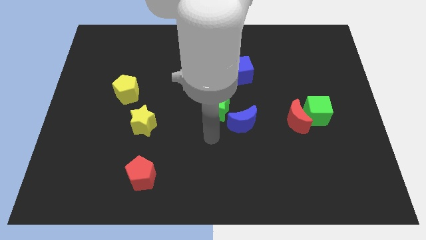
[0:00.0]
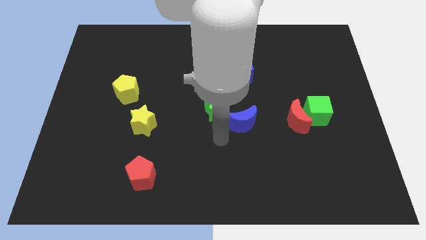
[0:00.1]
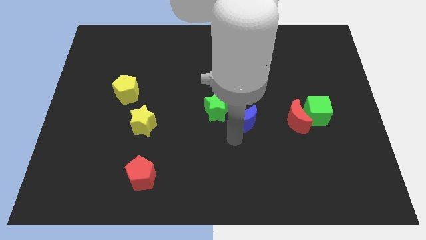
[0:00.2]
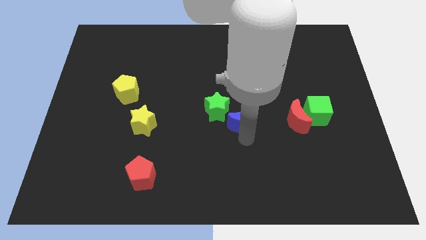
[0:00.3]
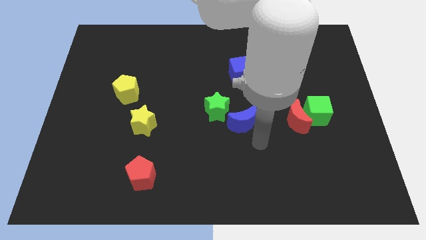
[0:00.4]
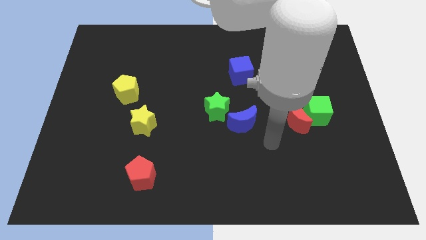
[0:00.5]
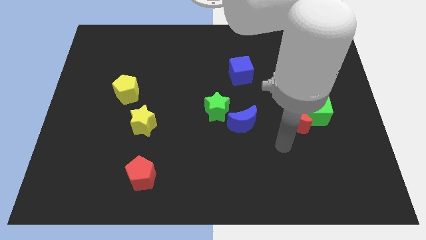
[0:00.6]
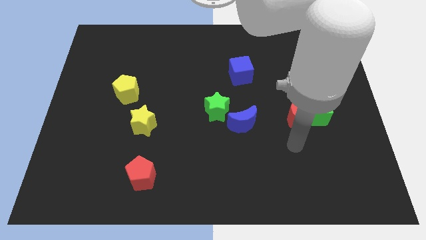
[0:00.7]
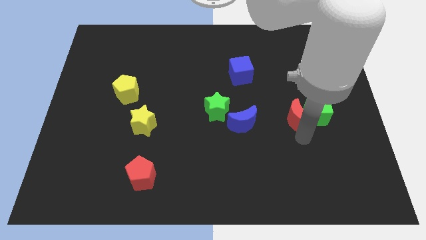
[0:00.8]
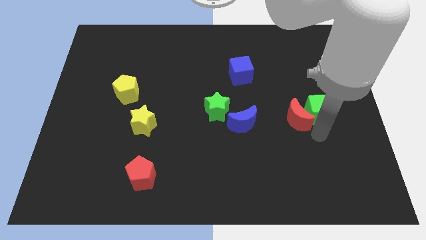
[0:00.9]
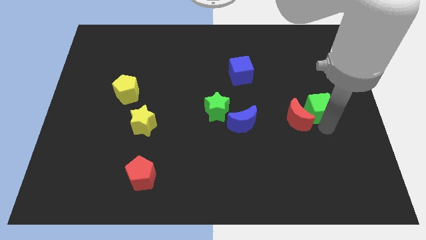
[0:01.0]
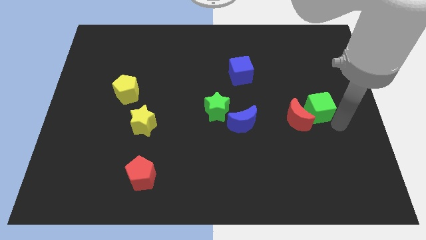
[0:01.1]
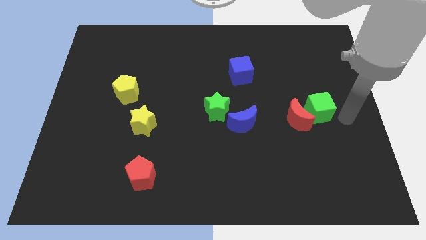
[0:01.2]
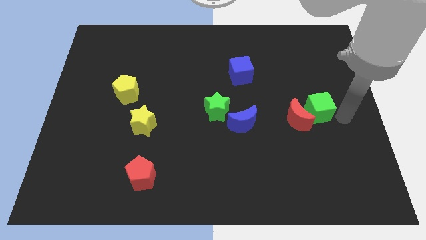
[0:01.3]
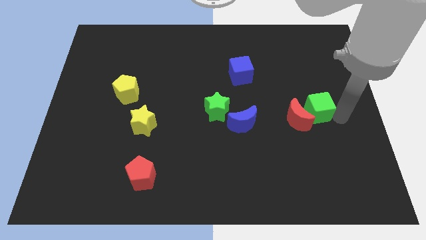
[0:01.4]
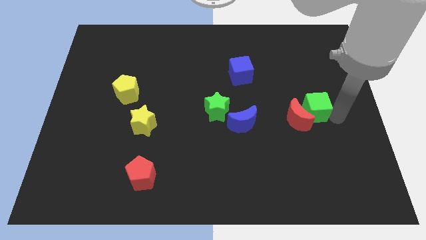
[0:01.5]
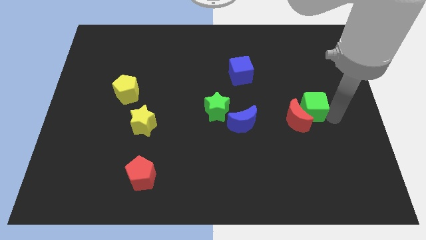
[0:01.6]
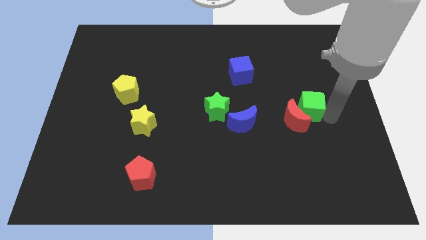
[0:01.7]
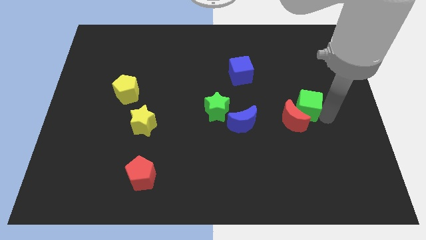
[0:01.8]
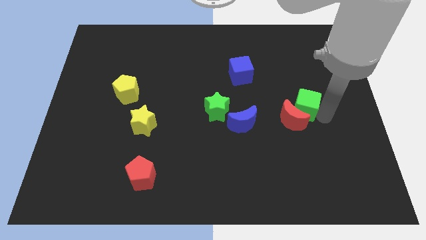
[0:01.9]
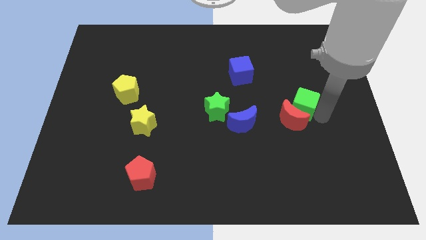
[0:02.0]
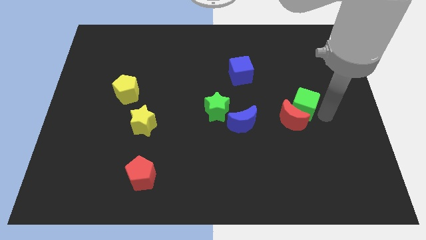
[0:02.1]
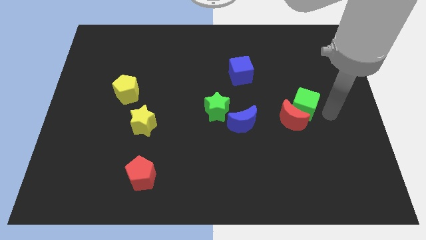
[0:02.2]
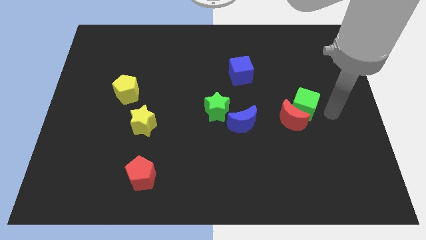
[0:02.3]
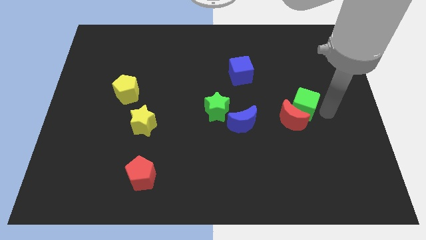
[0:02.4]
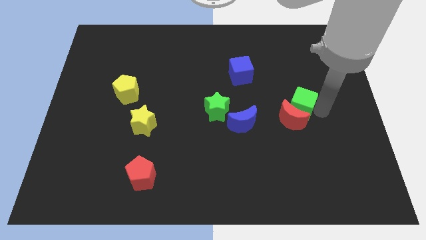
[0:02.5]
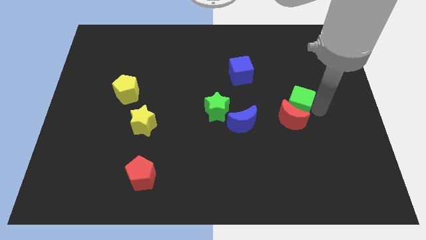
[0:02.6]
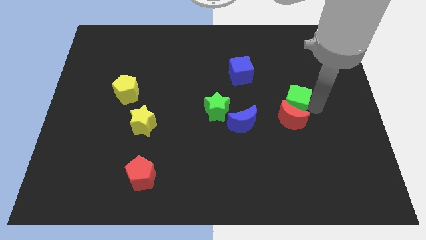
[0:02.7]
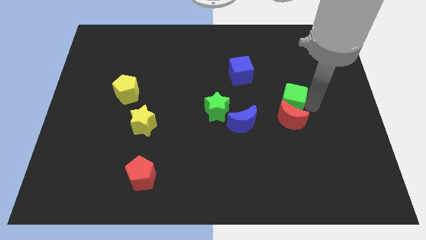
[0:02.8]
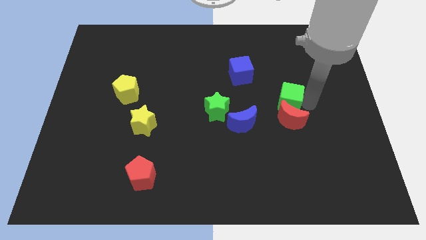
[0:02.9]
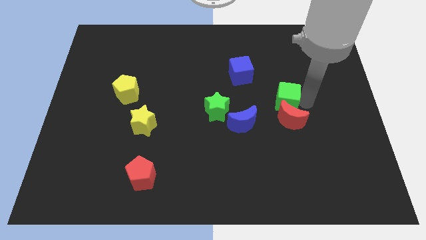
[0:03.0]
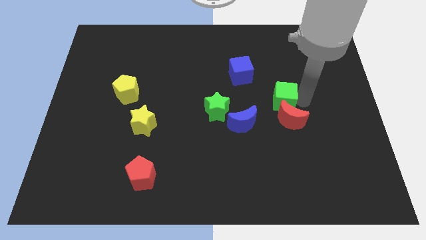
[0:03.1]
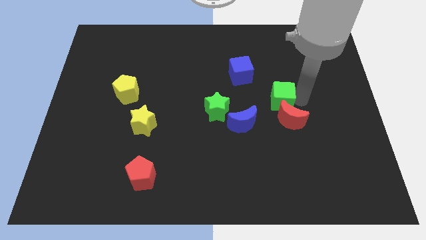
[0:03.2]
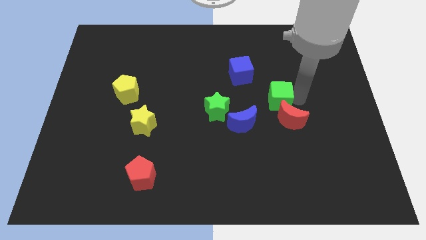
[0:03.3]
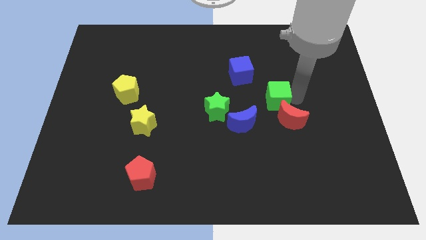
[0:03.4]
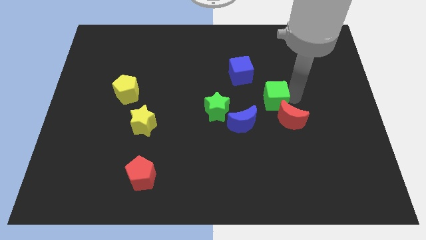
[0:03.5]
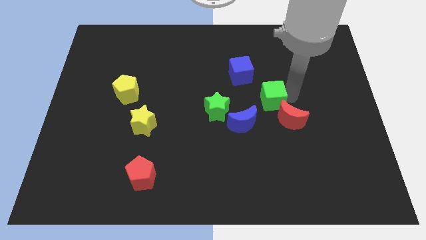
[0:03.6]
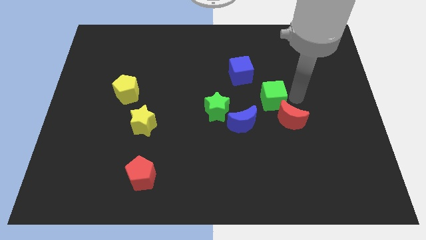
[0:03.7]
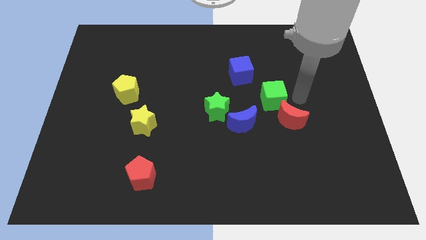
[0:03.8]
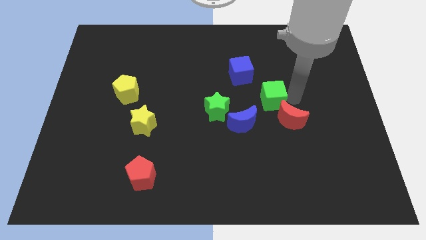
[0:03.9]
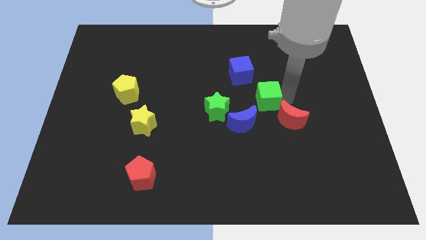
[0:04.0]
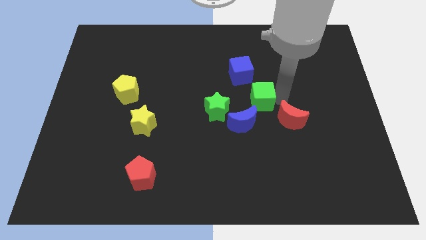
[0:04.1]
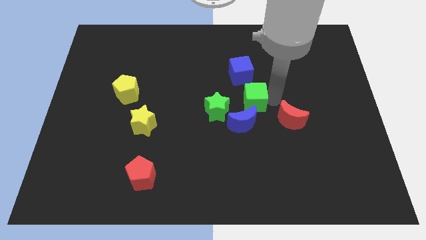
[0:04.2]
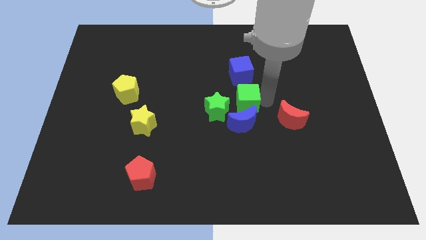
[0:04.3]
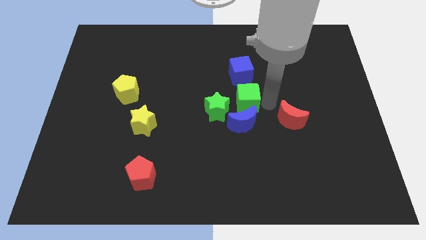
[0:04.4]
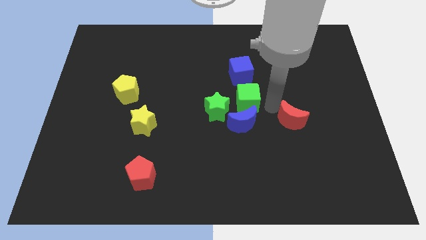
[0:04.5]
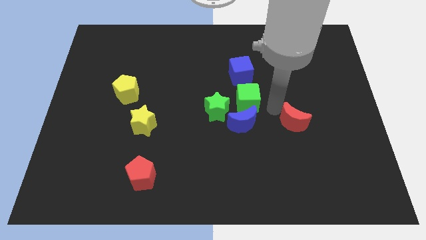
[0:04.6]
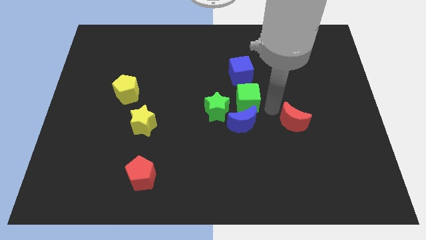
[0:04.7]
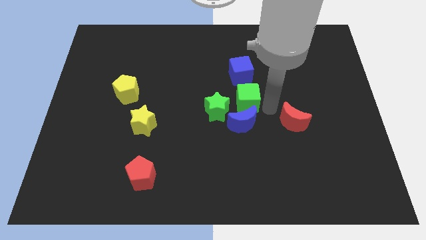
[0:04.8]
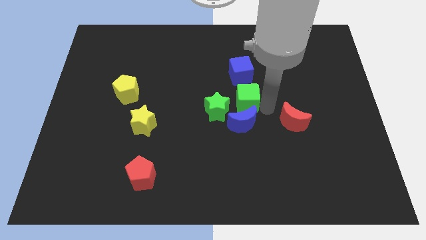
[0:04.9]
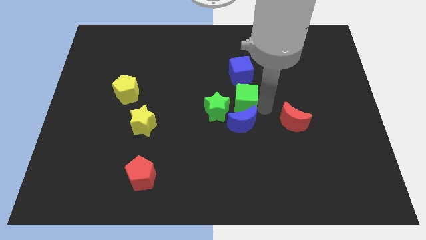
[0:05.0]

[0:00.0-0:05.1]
put the green cube to the top left of the blue moon

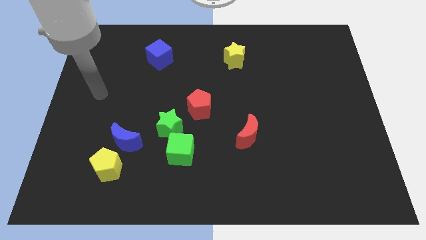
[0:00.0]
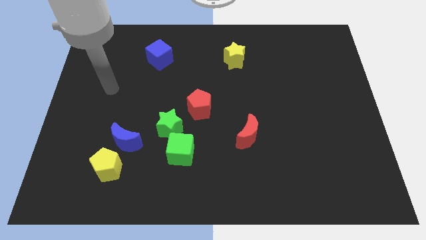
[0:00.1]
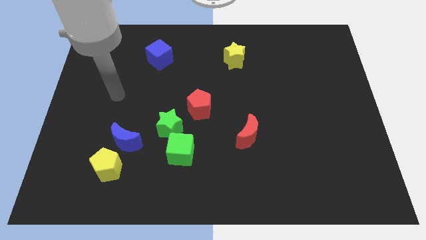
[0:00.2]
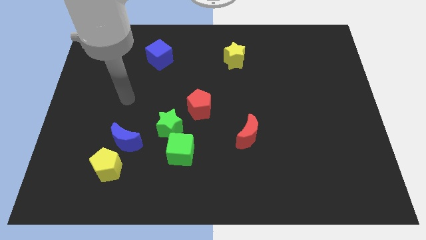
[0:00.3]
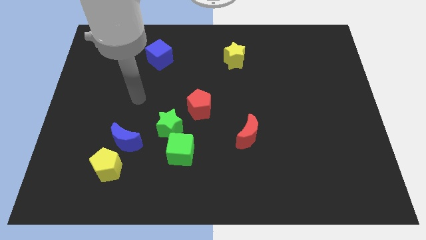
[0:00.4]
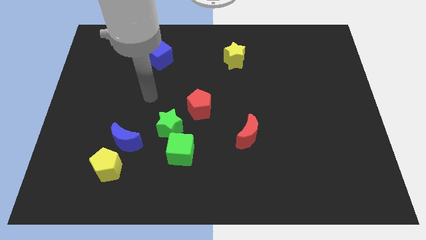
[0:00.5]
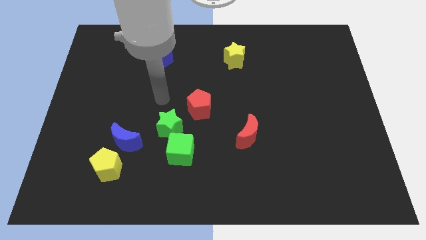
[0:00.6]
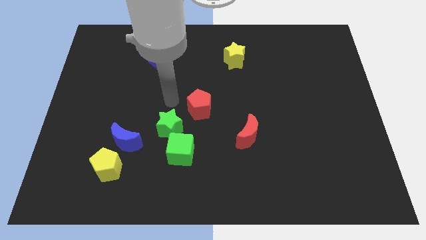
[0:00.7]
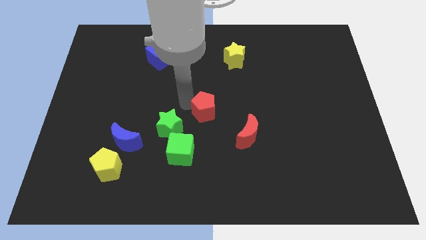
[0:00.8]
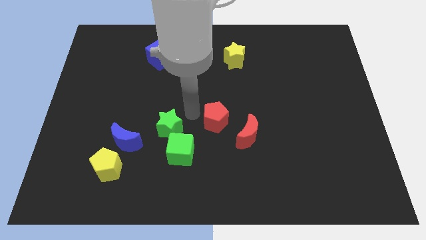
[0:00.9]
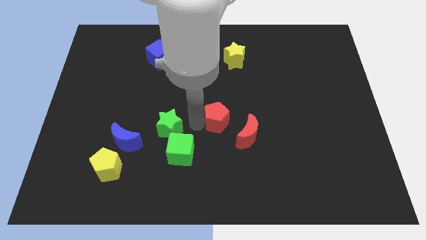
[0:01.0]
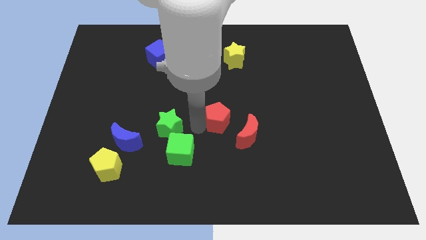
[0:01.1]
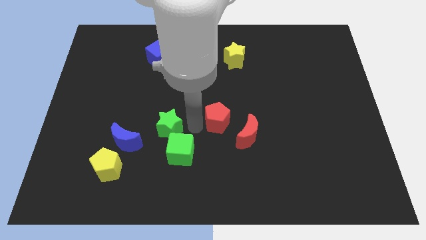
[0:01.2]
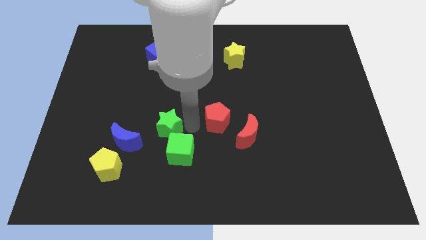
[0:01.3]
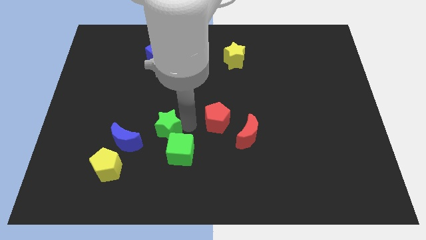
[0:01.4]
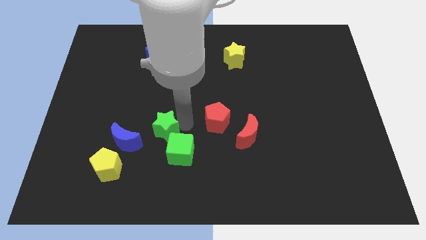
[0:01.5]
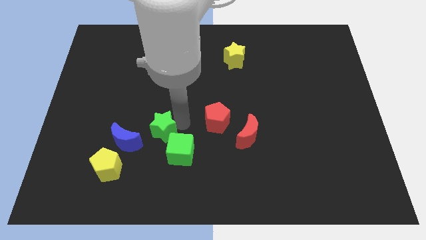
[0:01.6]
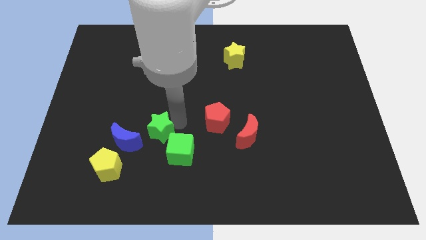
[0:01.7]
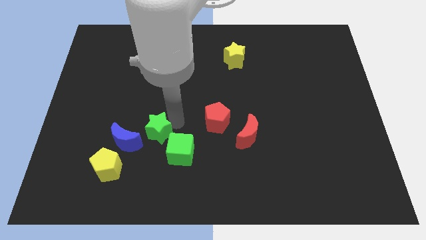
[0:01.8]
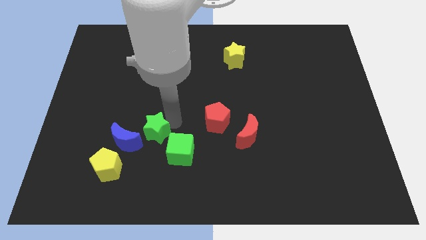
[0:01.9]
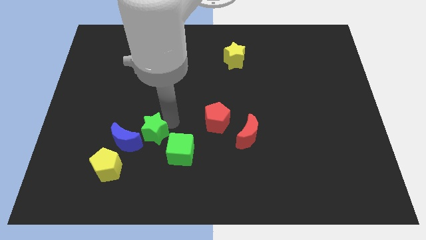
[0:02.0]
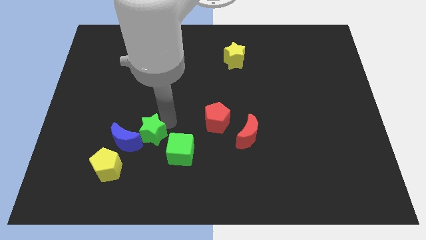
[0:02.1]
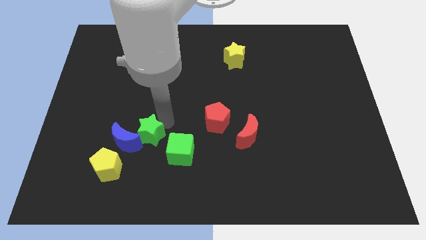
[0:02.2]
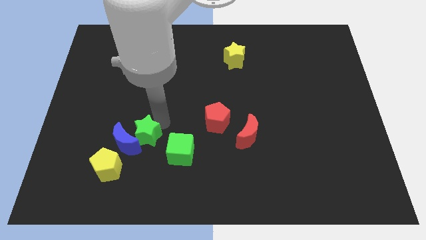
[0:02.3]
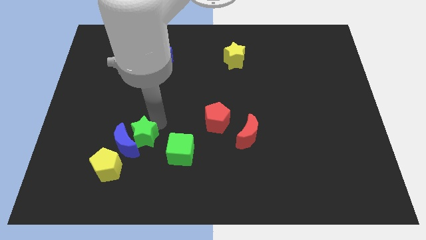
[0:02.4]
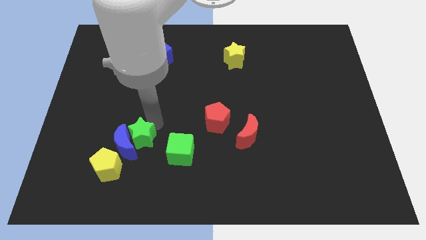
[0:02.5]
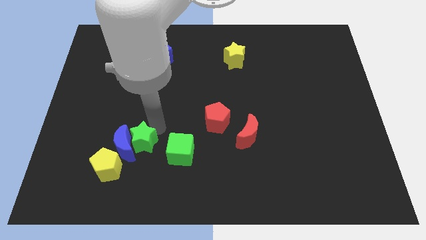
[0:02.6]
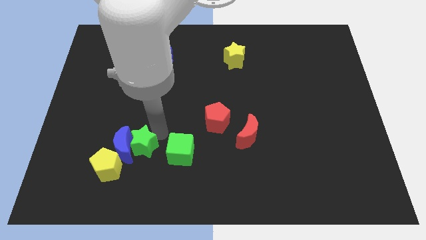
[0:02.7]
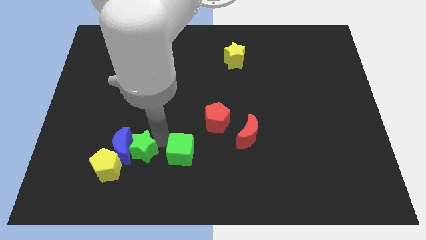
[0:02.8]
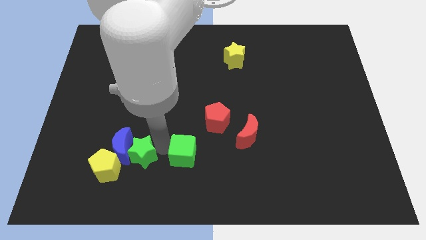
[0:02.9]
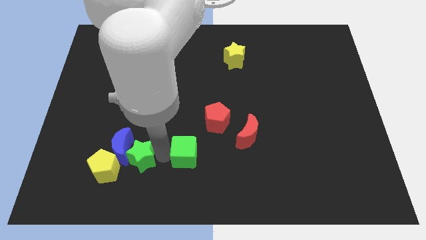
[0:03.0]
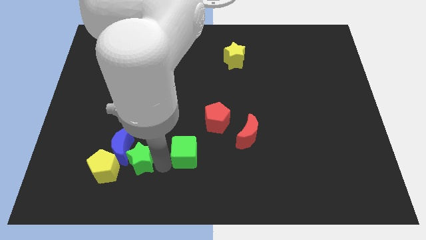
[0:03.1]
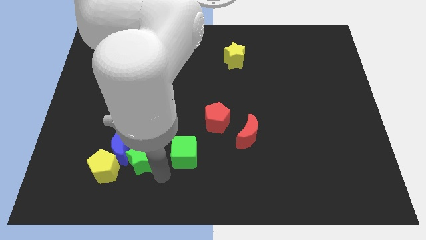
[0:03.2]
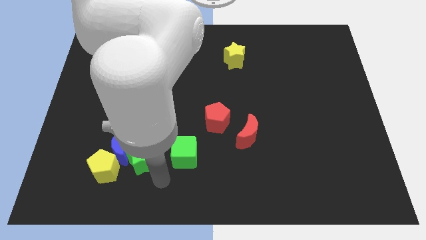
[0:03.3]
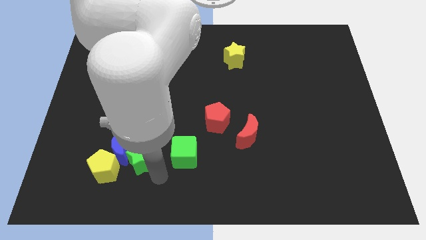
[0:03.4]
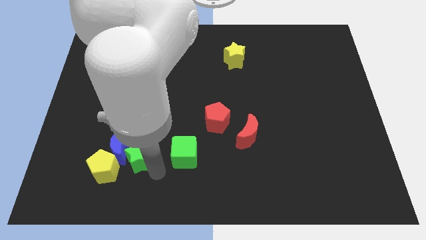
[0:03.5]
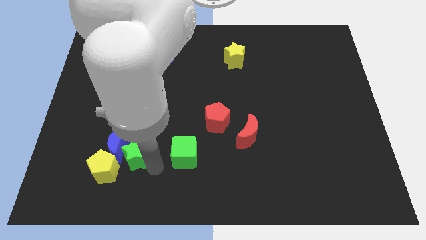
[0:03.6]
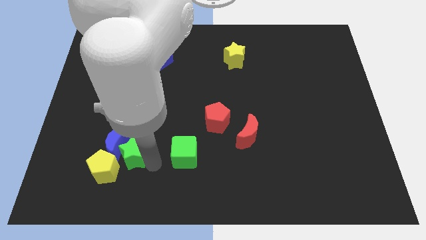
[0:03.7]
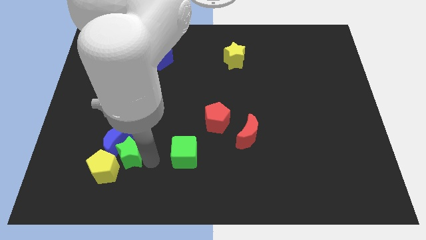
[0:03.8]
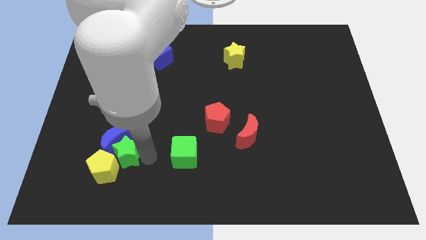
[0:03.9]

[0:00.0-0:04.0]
put the green star above the yellow pentagon
